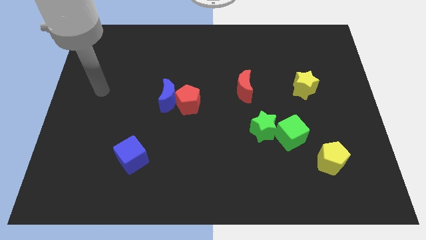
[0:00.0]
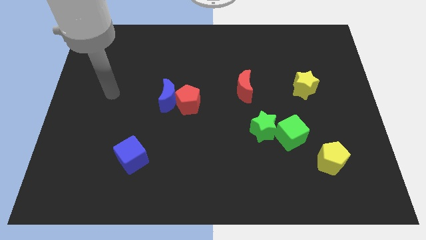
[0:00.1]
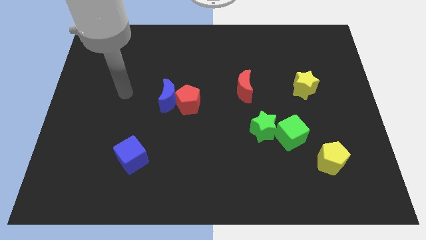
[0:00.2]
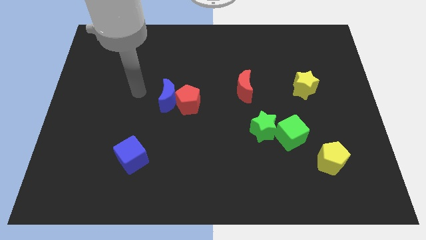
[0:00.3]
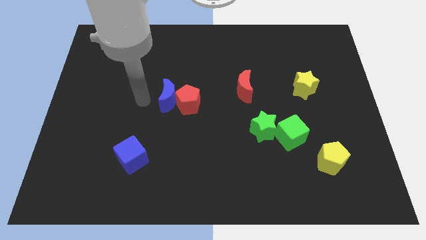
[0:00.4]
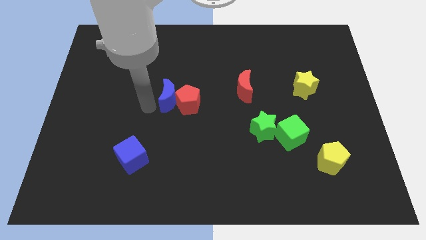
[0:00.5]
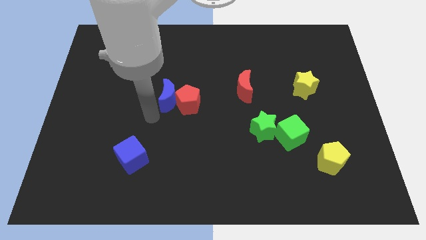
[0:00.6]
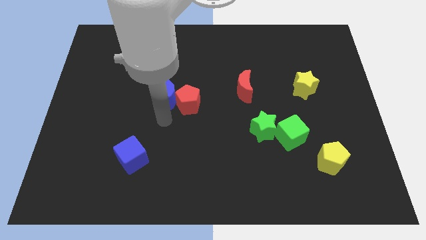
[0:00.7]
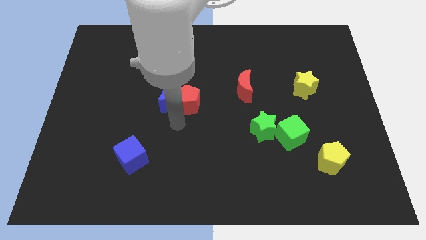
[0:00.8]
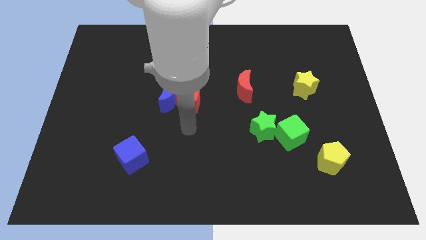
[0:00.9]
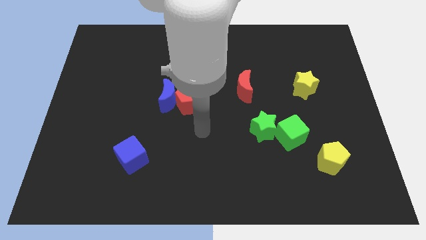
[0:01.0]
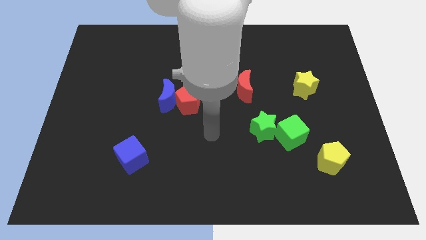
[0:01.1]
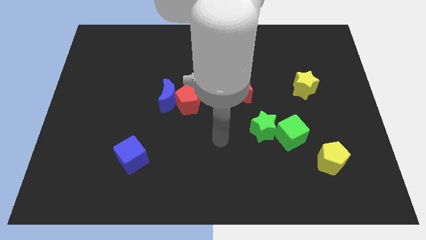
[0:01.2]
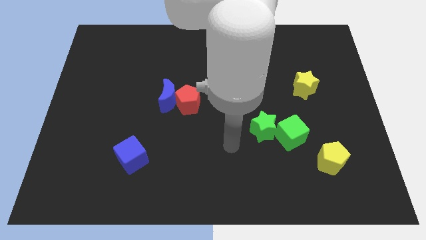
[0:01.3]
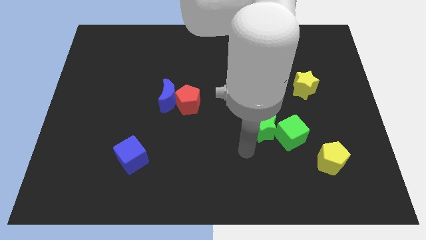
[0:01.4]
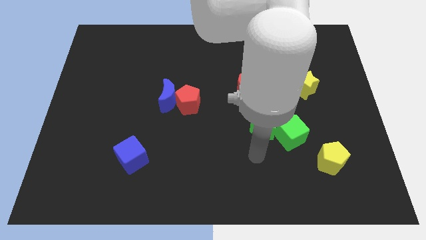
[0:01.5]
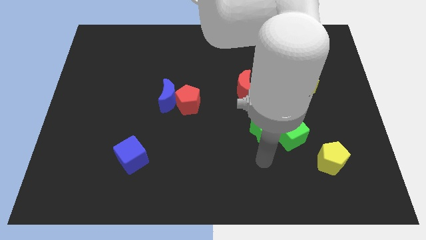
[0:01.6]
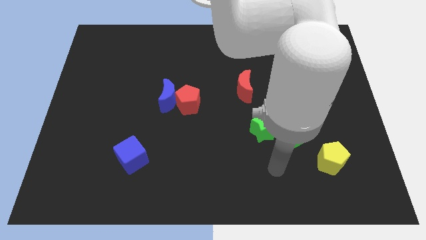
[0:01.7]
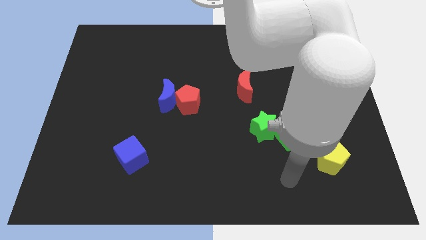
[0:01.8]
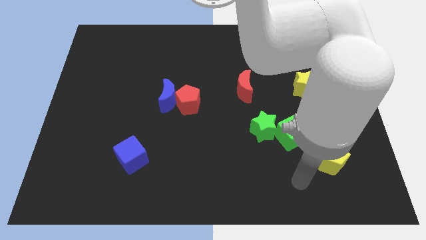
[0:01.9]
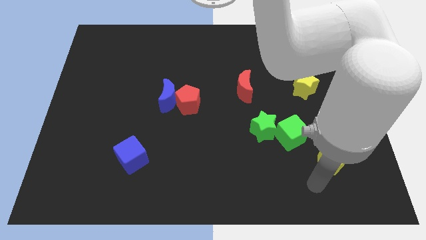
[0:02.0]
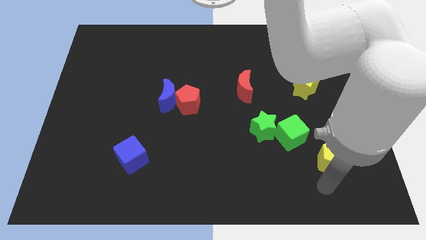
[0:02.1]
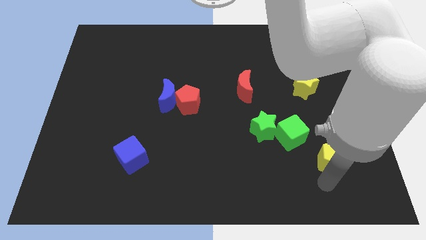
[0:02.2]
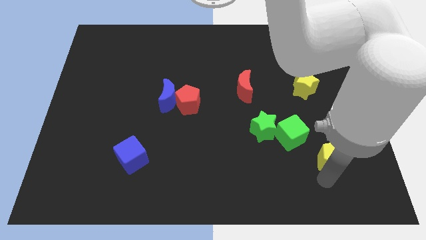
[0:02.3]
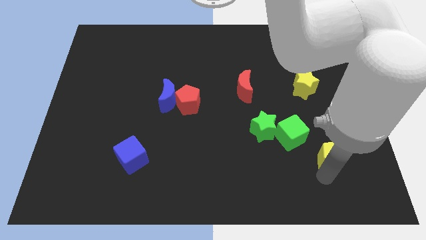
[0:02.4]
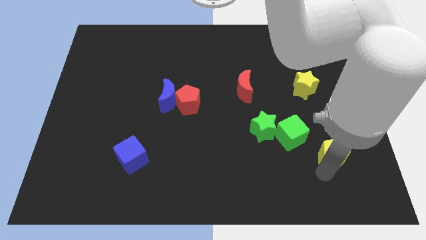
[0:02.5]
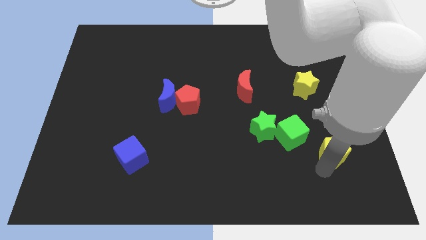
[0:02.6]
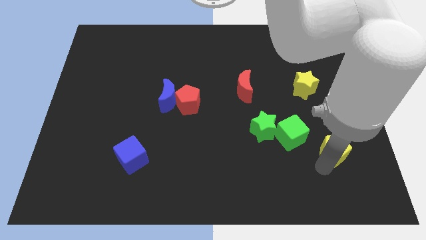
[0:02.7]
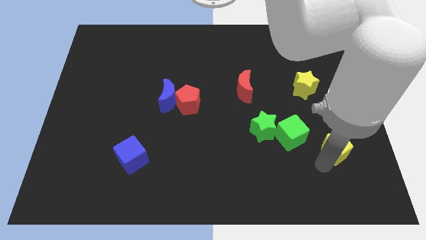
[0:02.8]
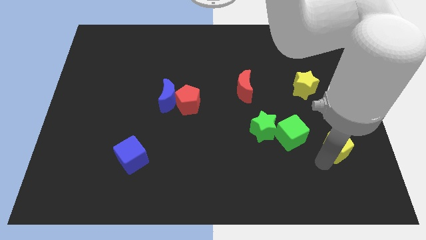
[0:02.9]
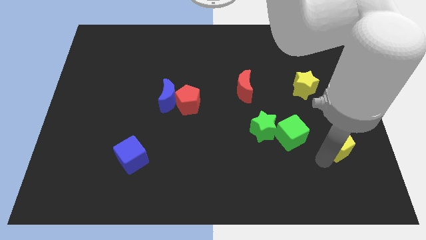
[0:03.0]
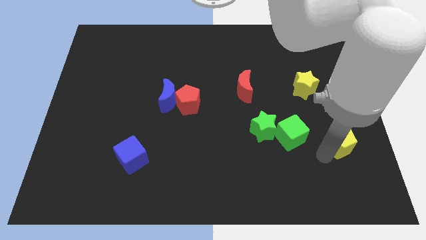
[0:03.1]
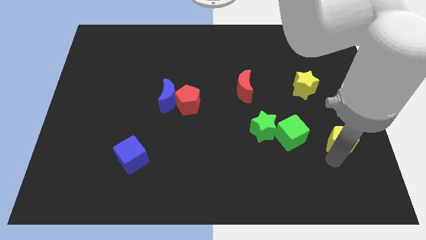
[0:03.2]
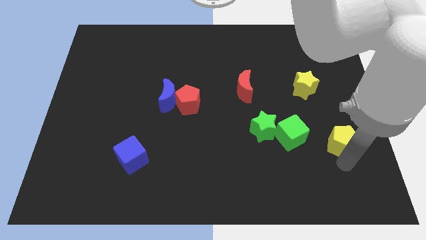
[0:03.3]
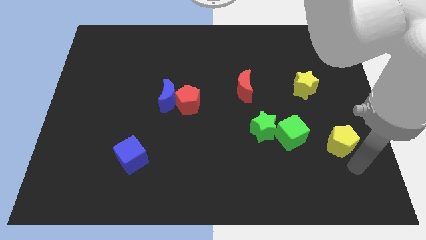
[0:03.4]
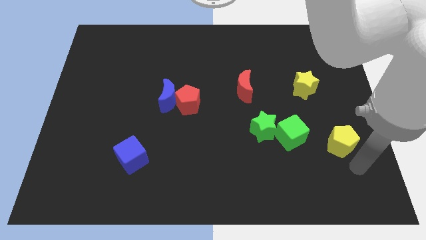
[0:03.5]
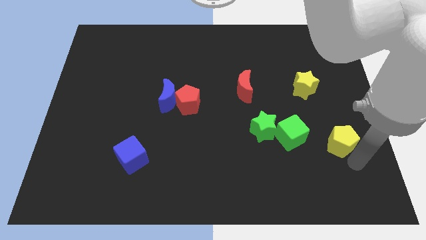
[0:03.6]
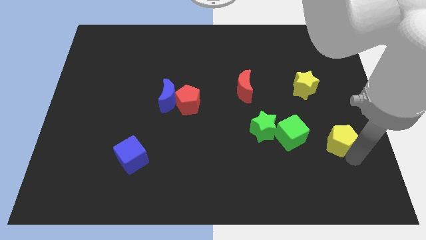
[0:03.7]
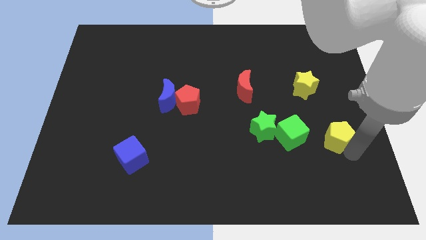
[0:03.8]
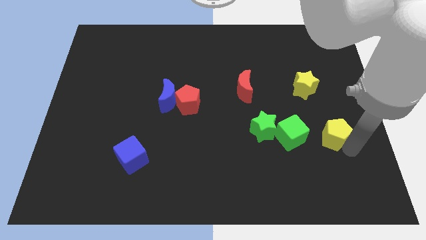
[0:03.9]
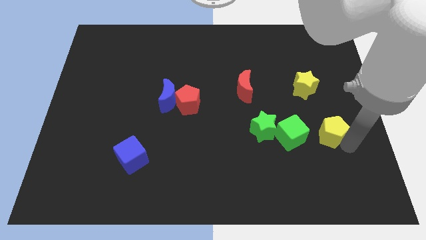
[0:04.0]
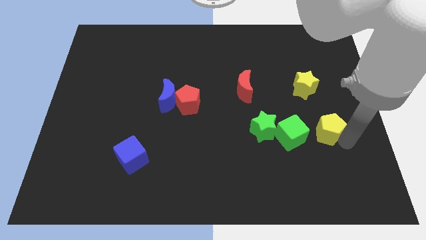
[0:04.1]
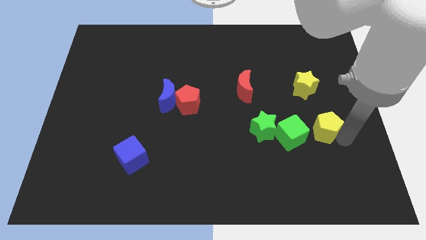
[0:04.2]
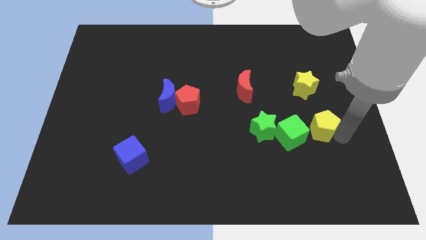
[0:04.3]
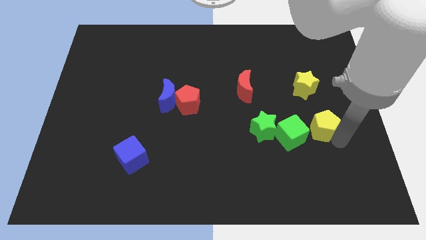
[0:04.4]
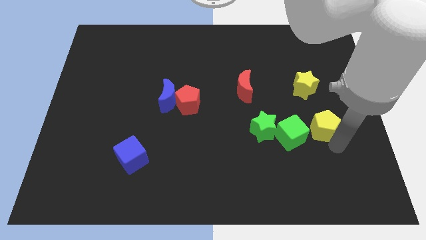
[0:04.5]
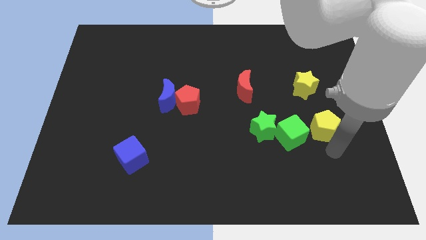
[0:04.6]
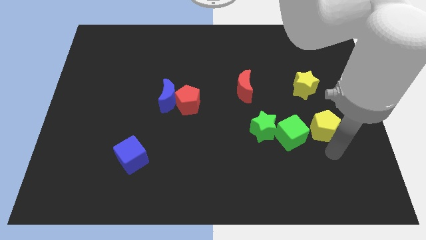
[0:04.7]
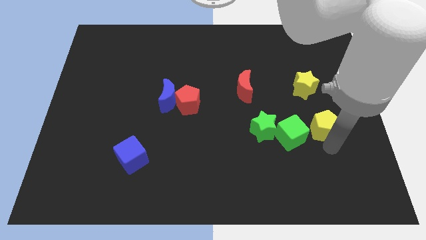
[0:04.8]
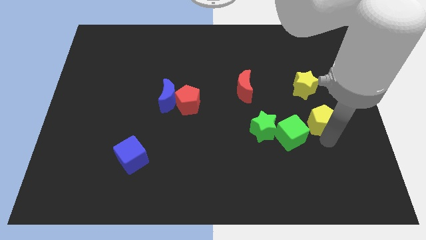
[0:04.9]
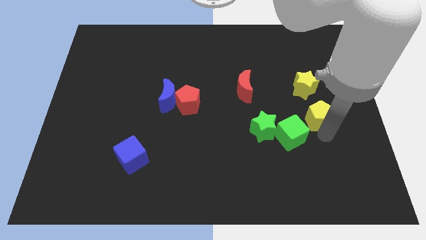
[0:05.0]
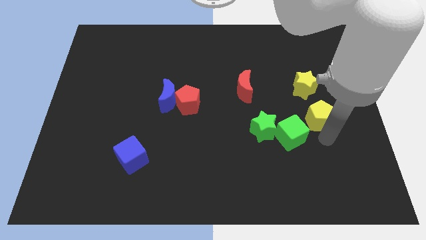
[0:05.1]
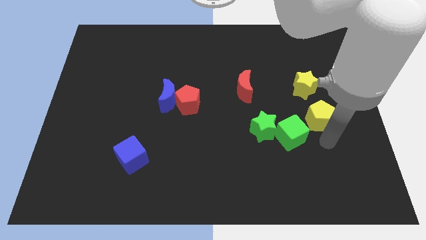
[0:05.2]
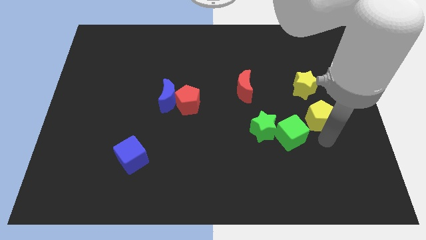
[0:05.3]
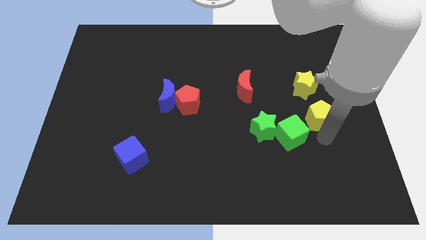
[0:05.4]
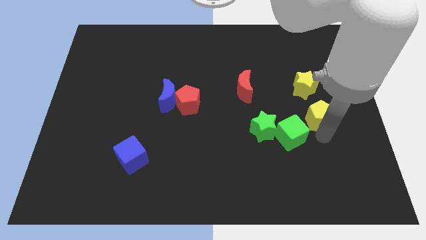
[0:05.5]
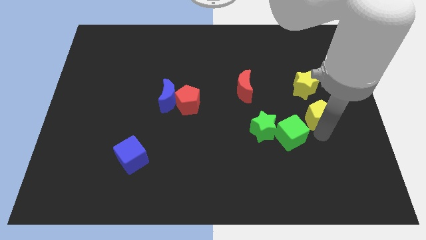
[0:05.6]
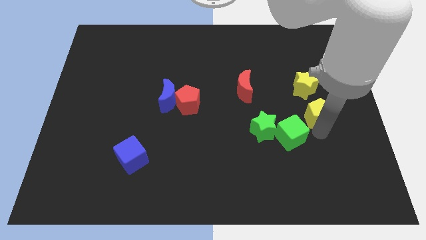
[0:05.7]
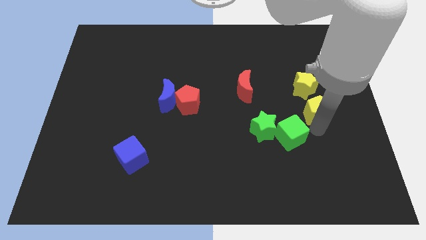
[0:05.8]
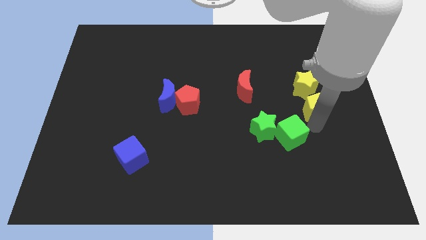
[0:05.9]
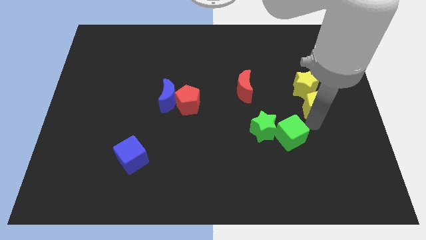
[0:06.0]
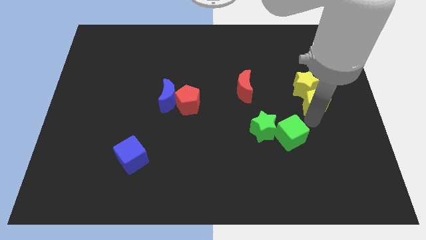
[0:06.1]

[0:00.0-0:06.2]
push the yellow pentagon close to the yellow star
